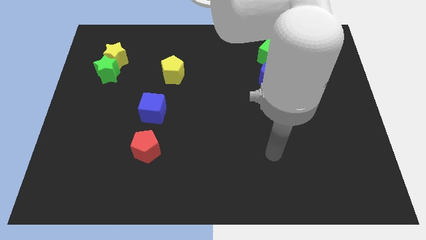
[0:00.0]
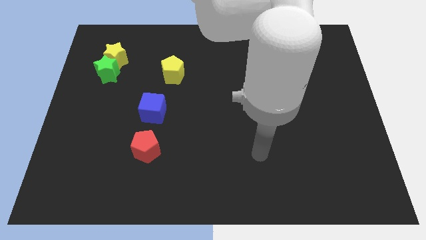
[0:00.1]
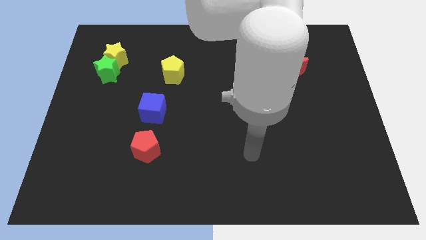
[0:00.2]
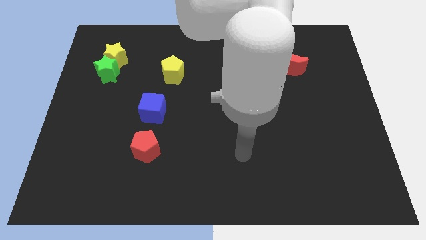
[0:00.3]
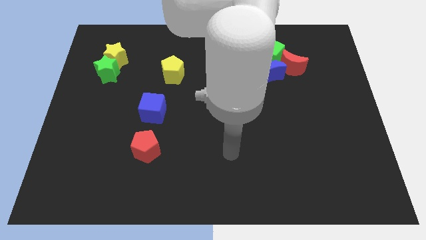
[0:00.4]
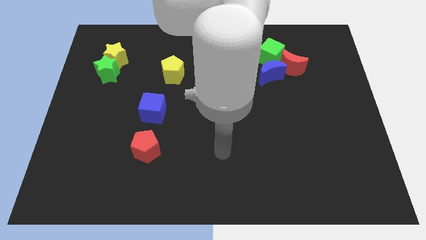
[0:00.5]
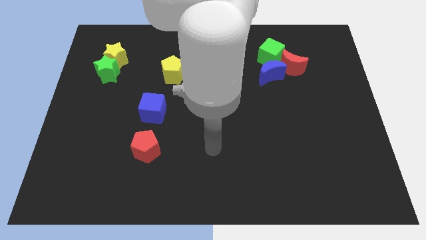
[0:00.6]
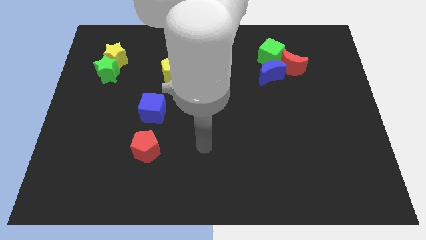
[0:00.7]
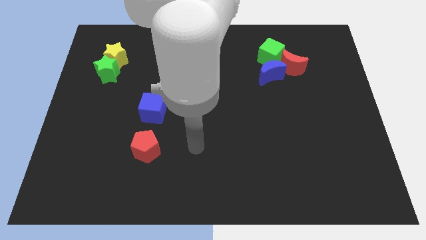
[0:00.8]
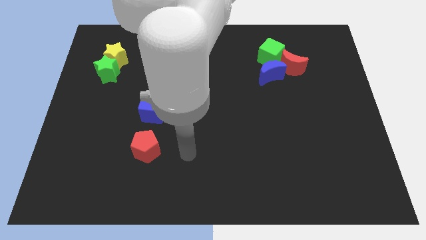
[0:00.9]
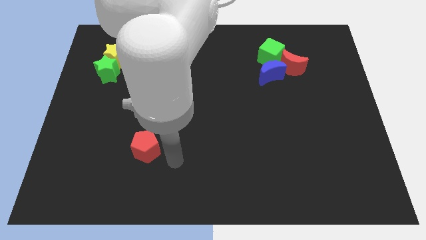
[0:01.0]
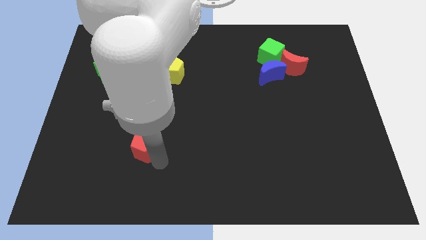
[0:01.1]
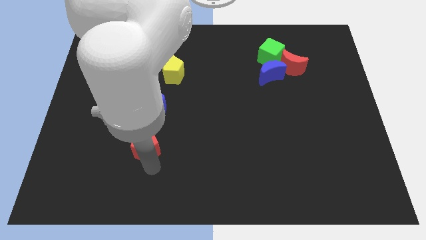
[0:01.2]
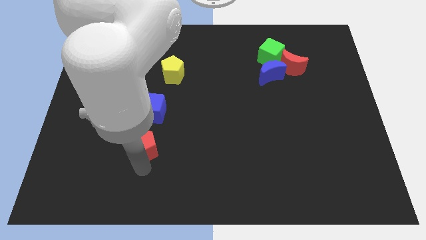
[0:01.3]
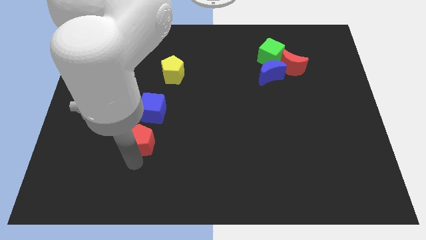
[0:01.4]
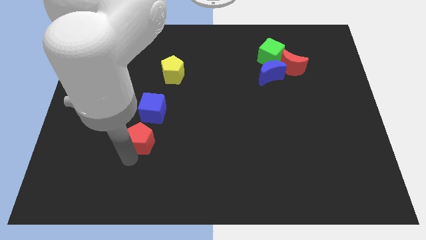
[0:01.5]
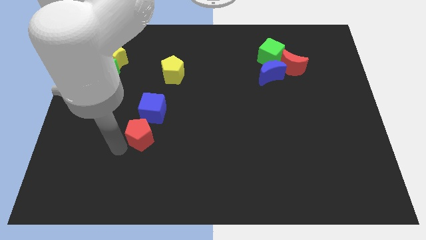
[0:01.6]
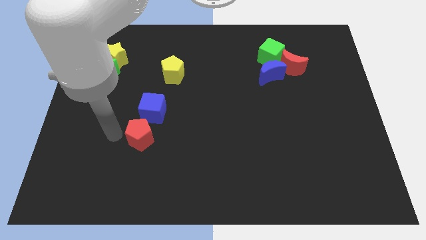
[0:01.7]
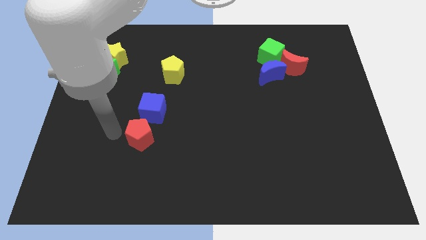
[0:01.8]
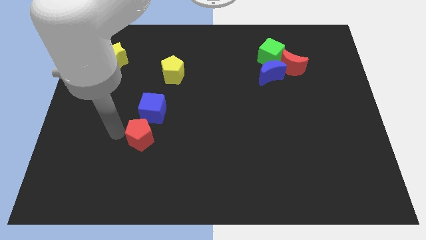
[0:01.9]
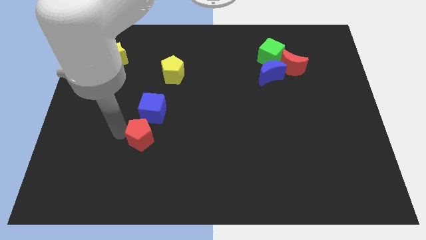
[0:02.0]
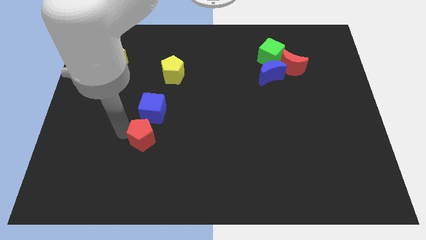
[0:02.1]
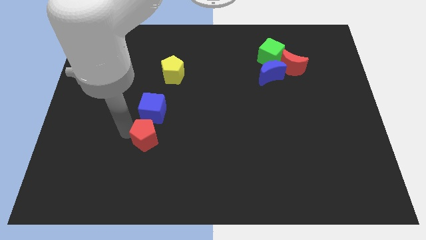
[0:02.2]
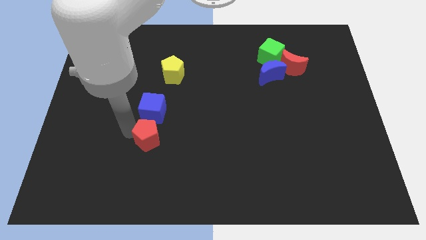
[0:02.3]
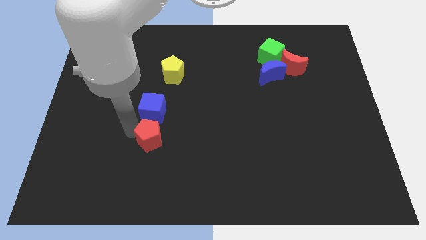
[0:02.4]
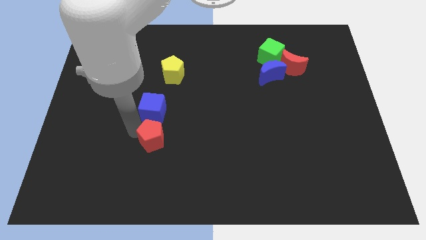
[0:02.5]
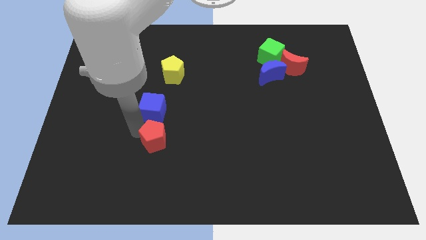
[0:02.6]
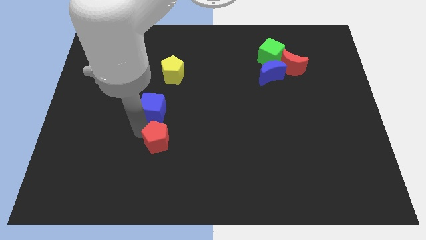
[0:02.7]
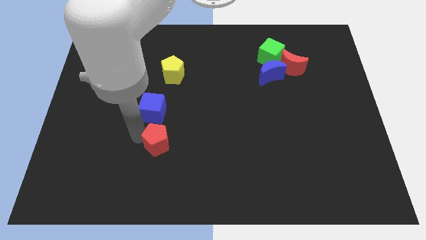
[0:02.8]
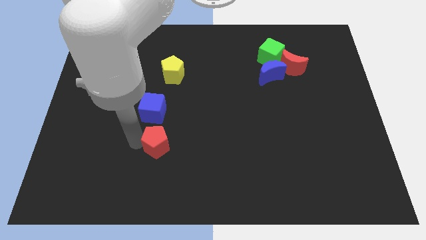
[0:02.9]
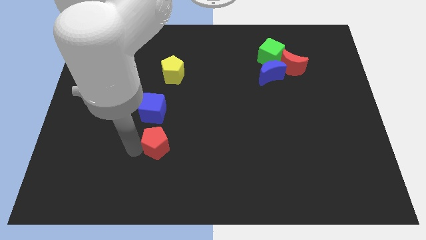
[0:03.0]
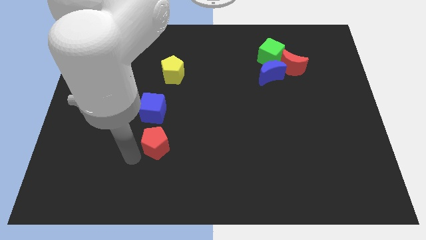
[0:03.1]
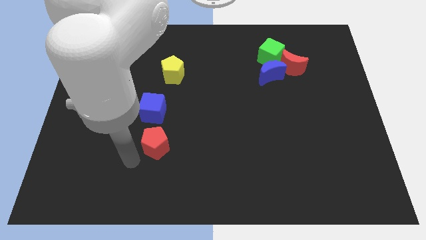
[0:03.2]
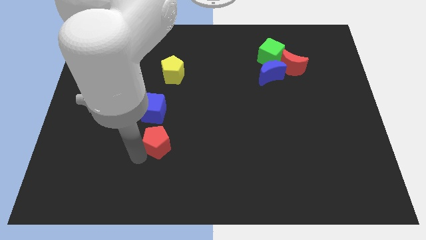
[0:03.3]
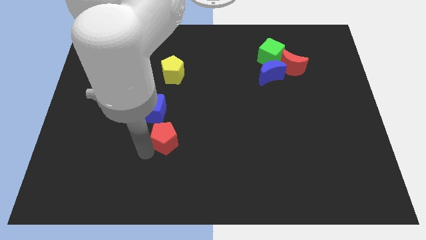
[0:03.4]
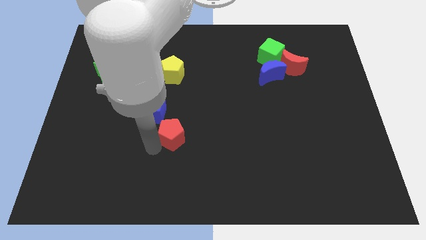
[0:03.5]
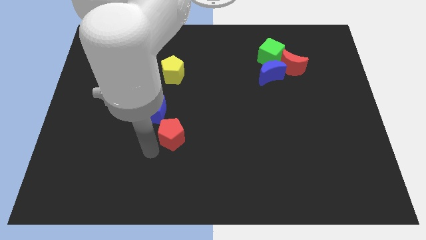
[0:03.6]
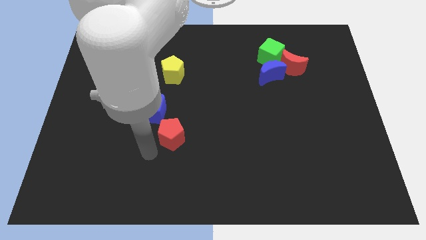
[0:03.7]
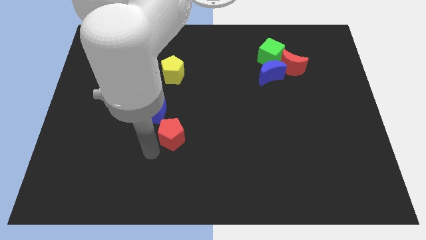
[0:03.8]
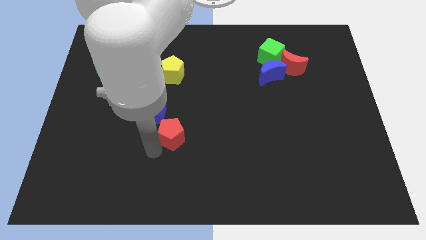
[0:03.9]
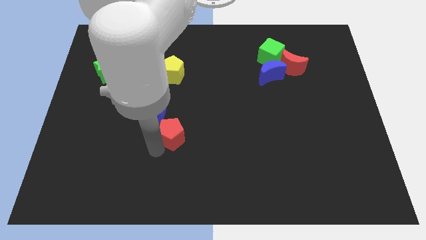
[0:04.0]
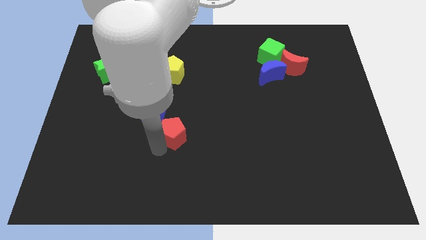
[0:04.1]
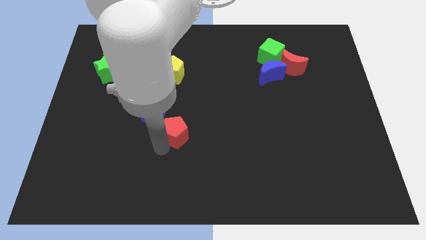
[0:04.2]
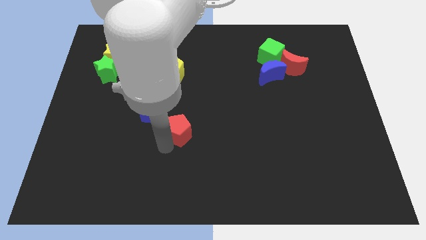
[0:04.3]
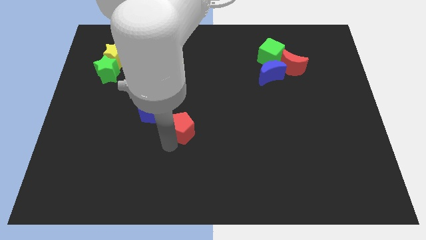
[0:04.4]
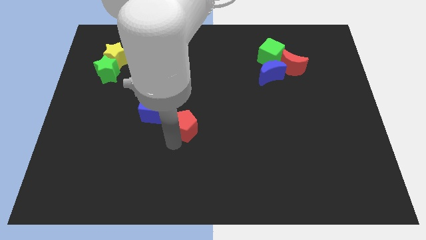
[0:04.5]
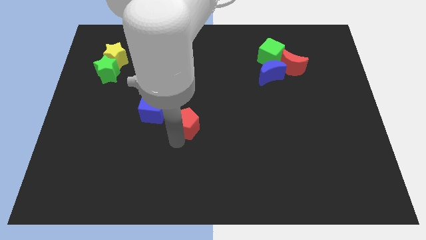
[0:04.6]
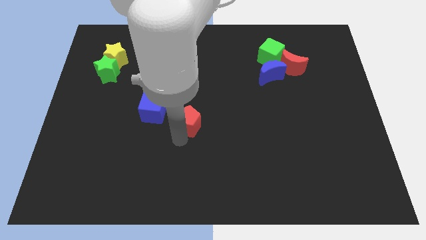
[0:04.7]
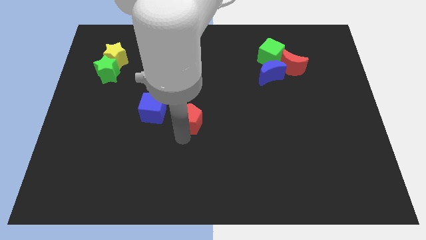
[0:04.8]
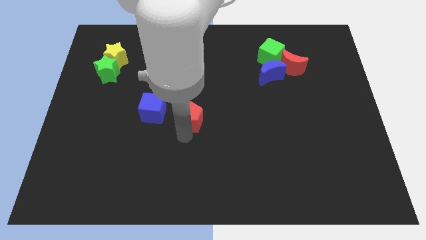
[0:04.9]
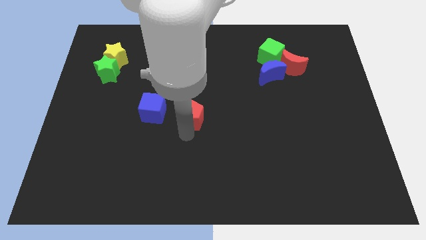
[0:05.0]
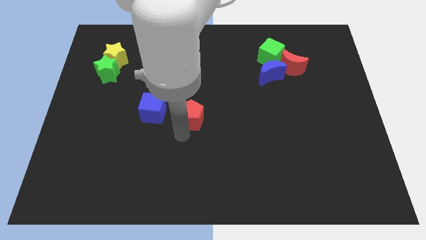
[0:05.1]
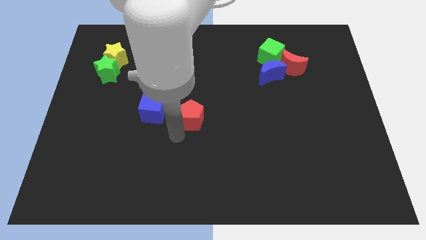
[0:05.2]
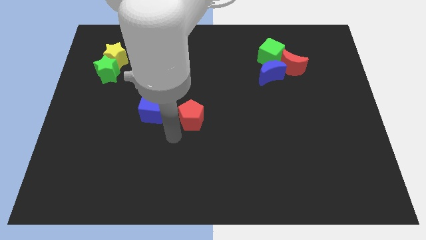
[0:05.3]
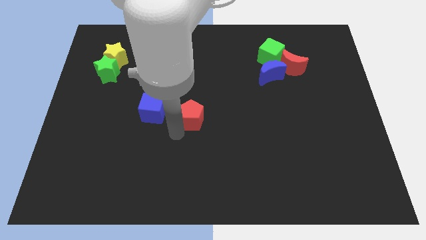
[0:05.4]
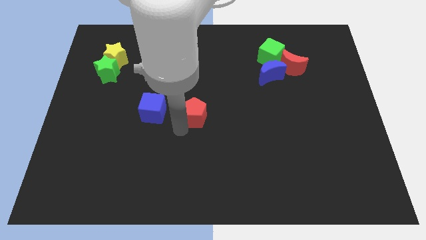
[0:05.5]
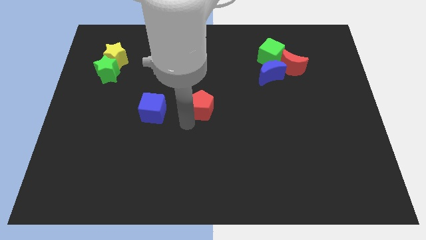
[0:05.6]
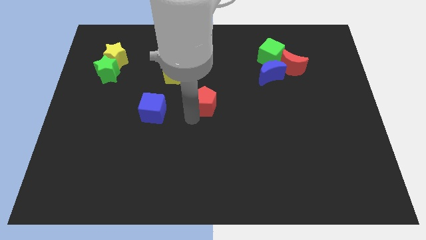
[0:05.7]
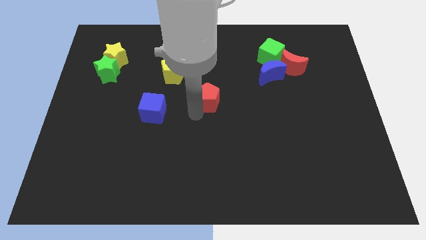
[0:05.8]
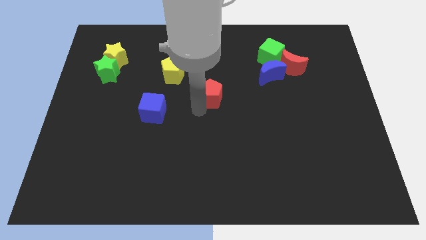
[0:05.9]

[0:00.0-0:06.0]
push the red pentagon diagonally upwards and right

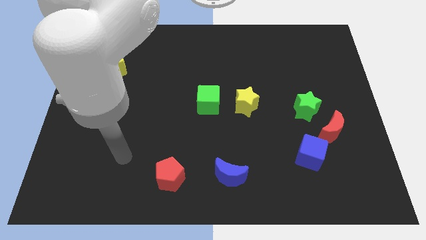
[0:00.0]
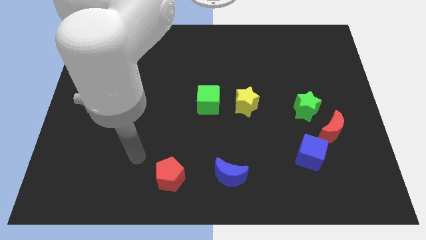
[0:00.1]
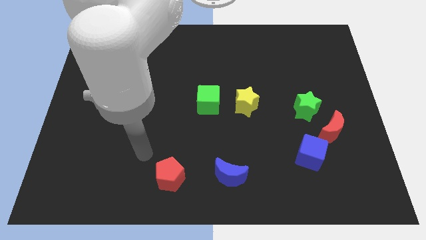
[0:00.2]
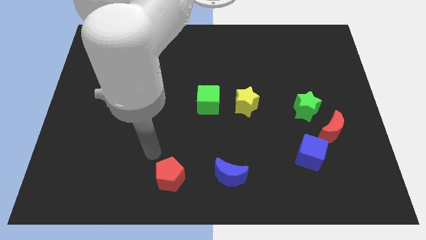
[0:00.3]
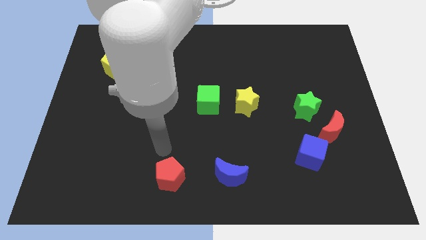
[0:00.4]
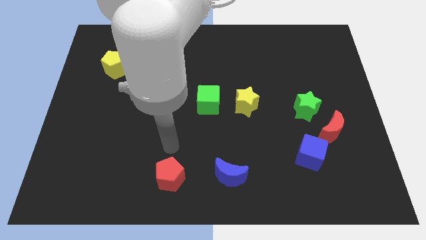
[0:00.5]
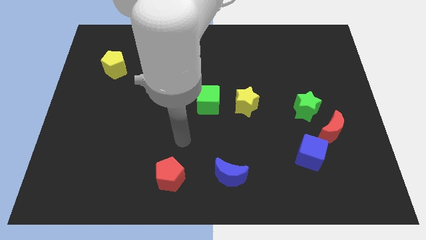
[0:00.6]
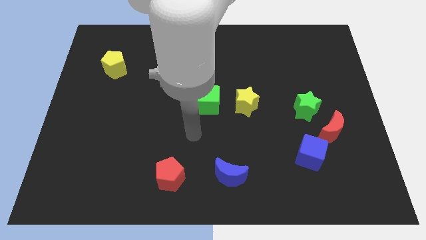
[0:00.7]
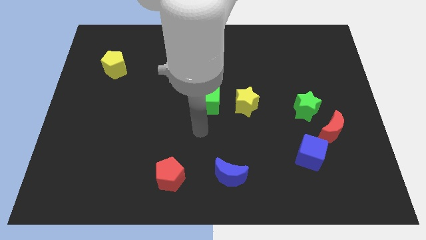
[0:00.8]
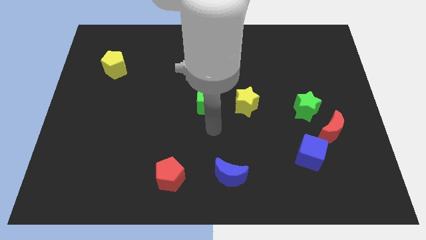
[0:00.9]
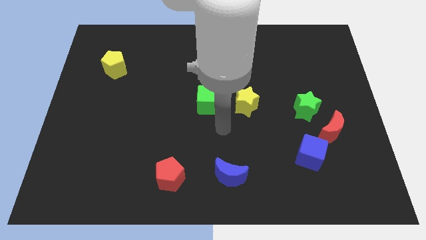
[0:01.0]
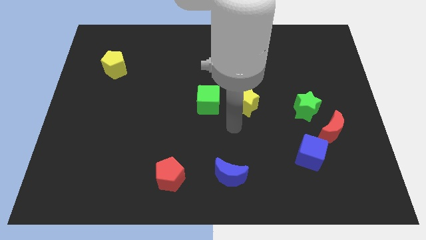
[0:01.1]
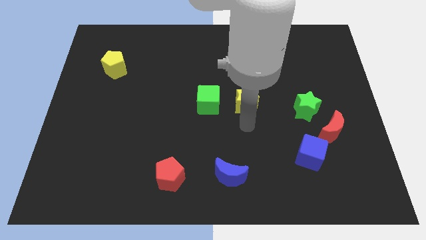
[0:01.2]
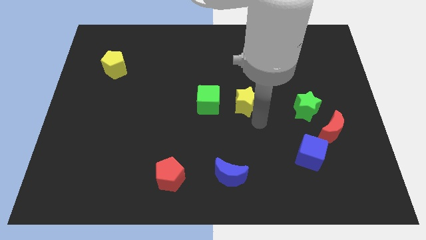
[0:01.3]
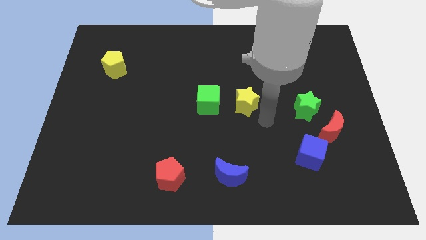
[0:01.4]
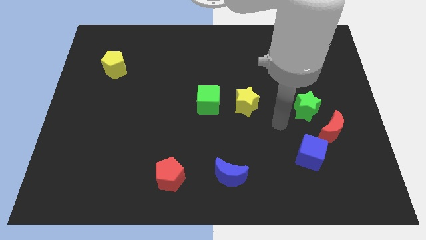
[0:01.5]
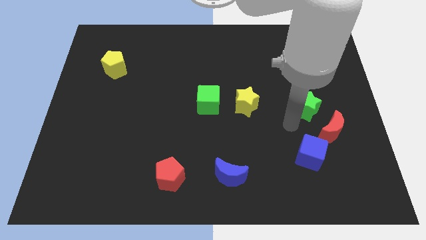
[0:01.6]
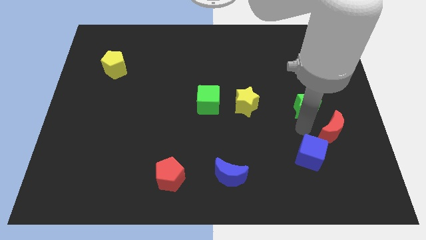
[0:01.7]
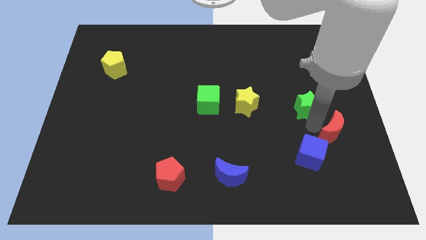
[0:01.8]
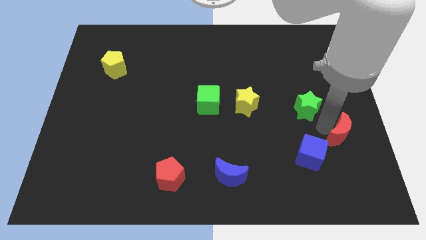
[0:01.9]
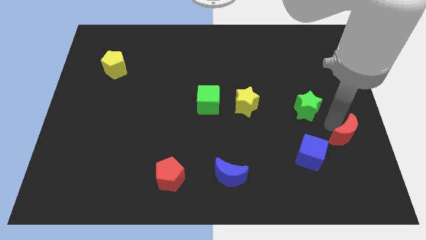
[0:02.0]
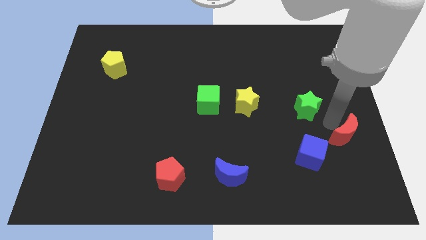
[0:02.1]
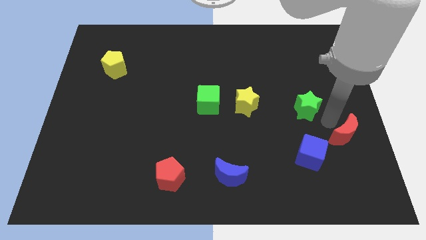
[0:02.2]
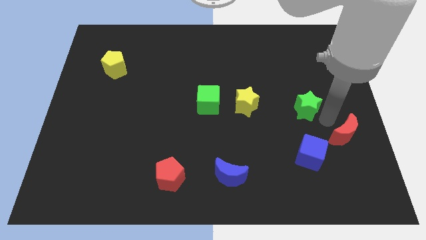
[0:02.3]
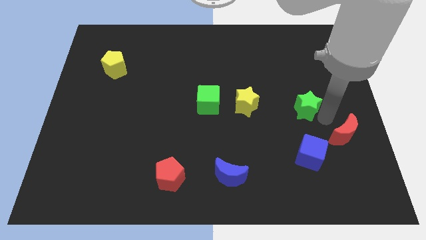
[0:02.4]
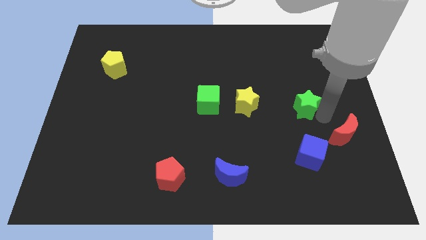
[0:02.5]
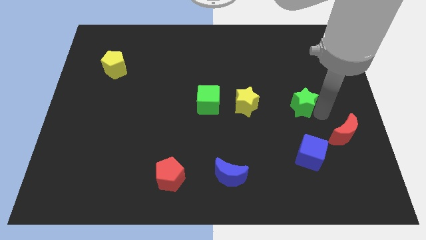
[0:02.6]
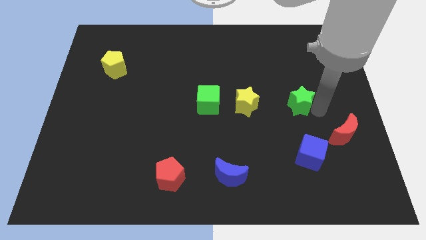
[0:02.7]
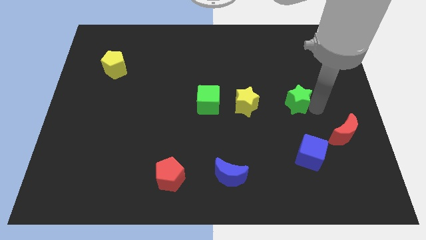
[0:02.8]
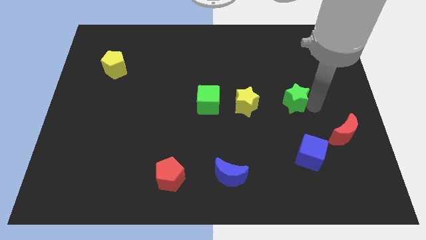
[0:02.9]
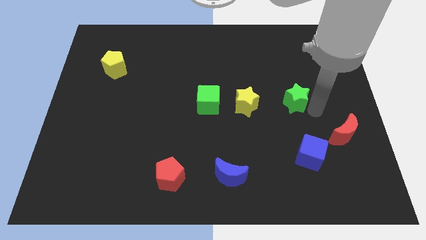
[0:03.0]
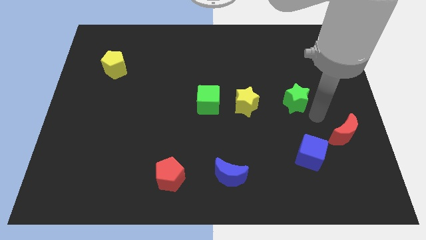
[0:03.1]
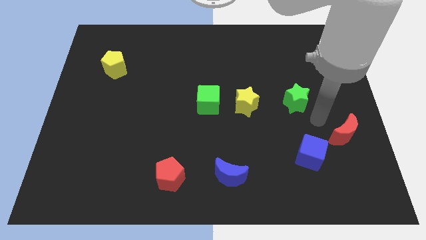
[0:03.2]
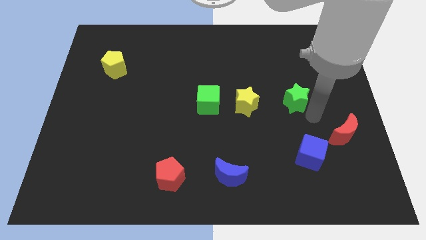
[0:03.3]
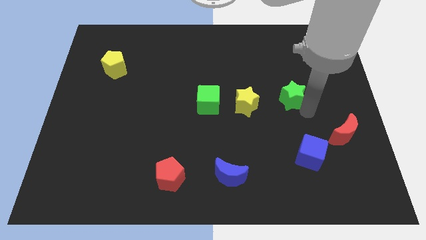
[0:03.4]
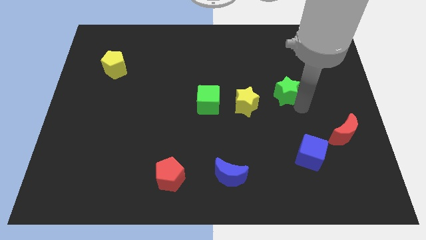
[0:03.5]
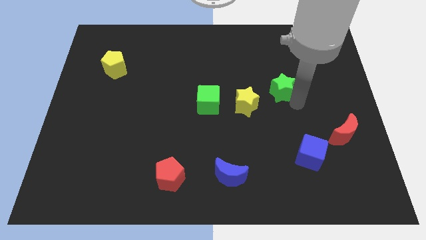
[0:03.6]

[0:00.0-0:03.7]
slightly slide the green star up and then to the left
